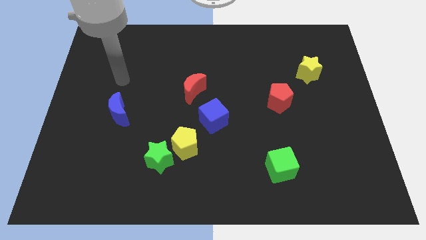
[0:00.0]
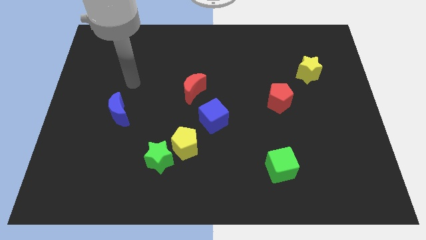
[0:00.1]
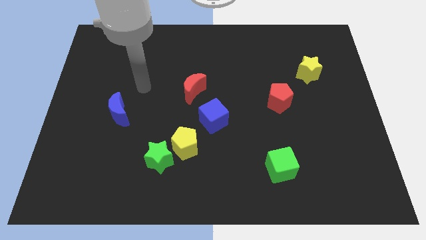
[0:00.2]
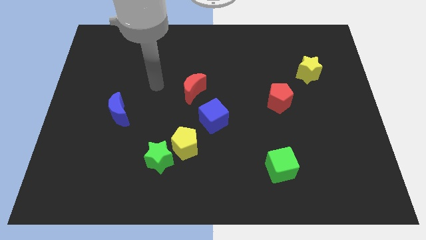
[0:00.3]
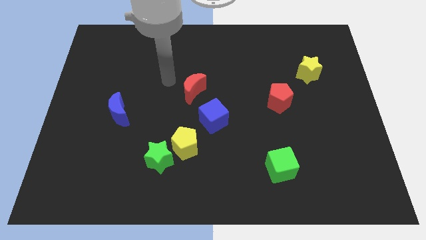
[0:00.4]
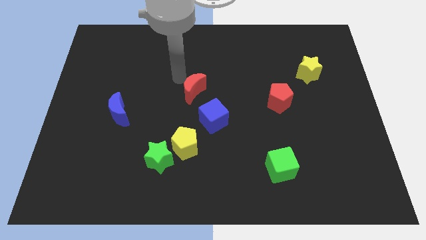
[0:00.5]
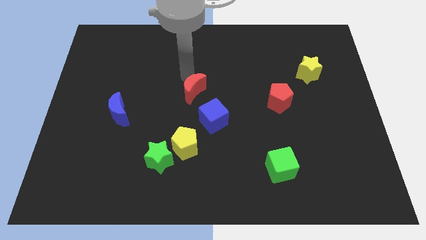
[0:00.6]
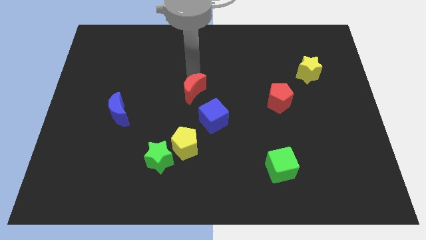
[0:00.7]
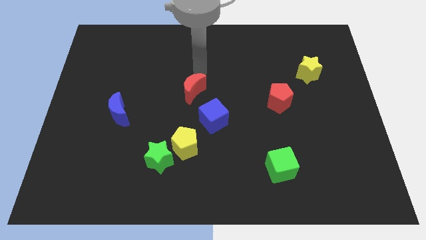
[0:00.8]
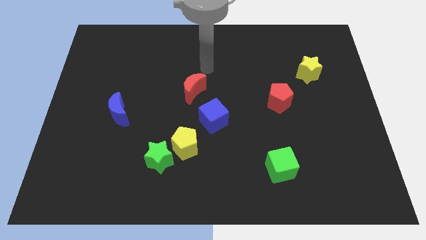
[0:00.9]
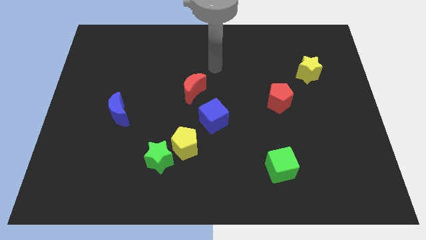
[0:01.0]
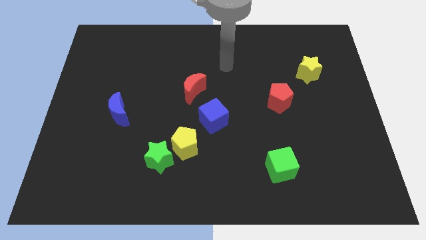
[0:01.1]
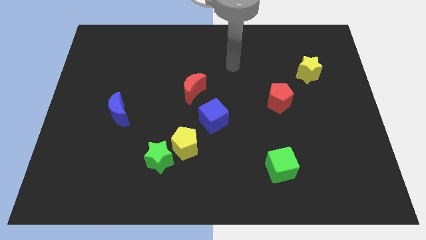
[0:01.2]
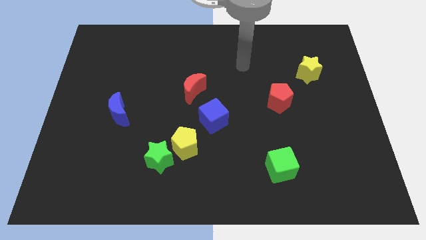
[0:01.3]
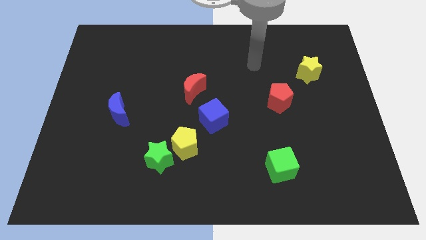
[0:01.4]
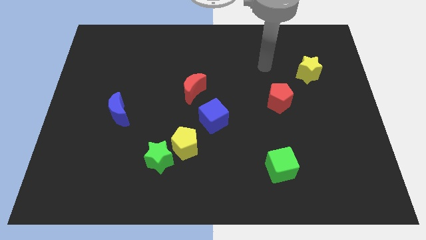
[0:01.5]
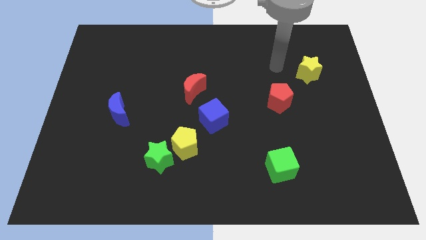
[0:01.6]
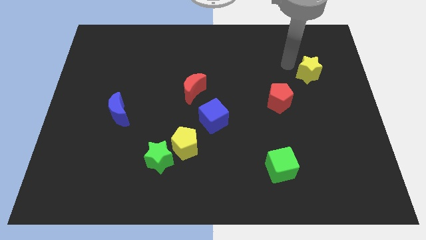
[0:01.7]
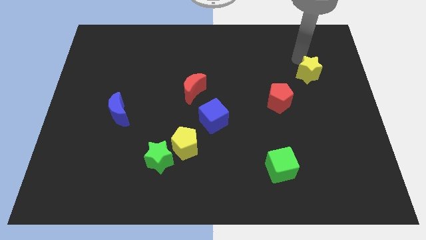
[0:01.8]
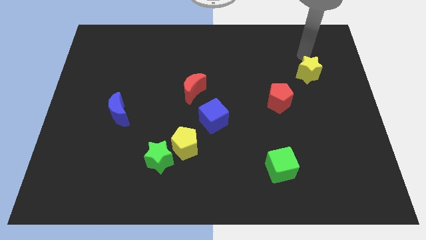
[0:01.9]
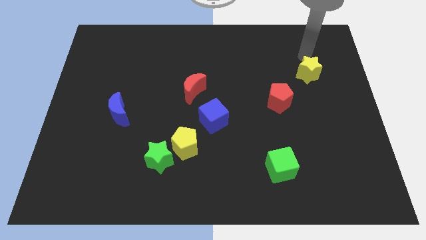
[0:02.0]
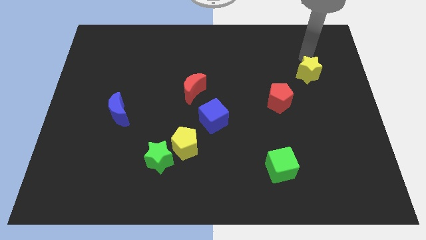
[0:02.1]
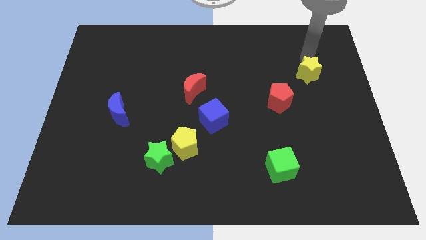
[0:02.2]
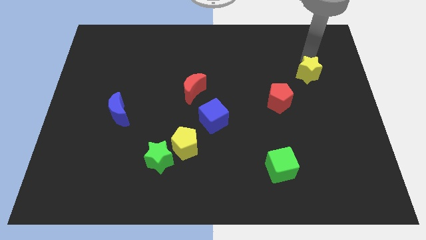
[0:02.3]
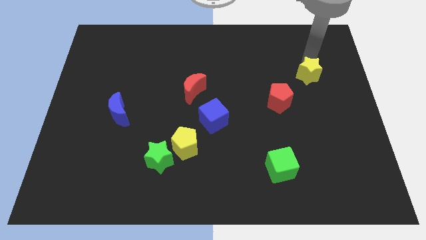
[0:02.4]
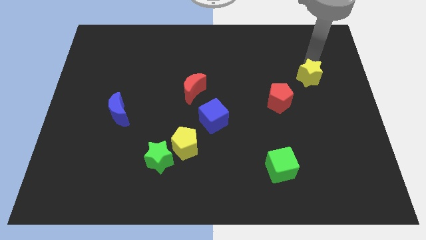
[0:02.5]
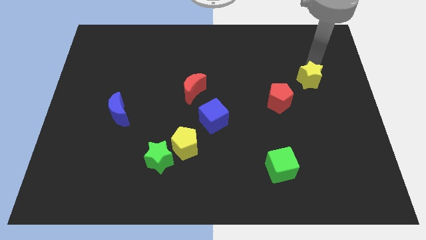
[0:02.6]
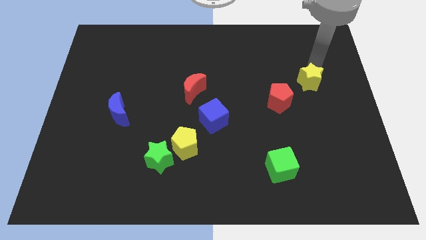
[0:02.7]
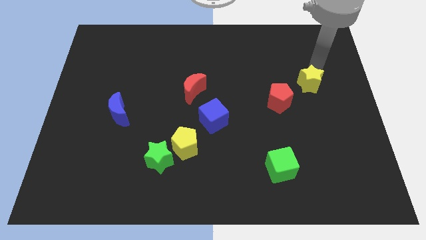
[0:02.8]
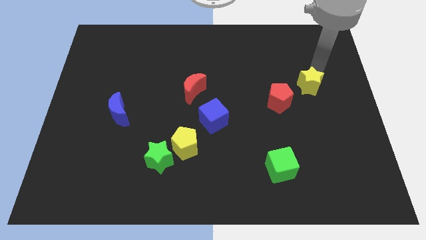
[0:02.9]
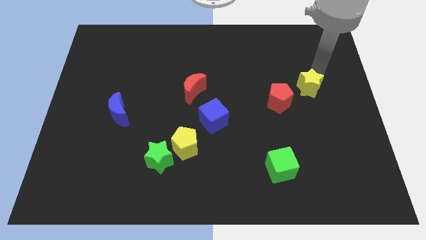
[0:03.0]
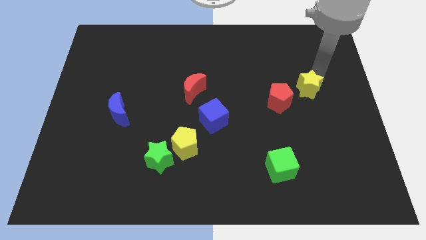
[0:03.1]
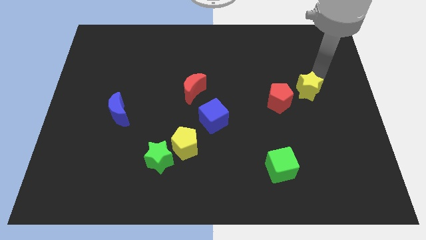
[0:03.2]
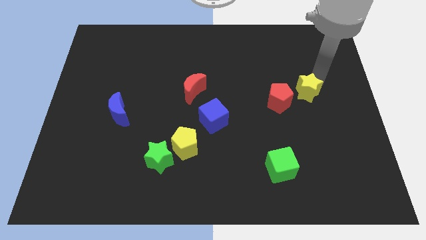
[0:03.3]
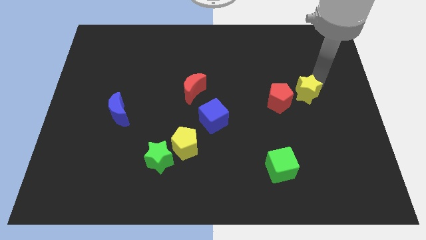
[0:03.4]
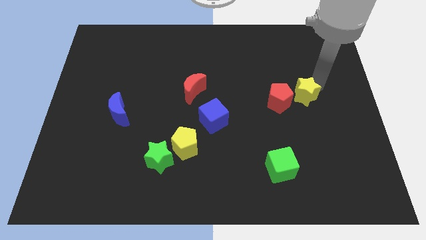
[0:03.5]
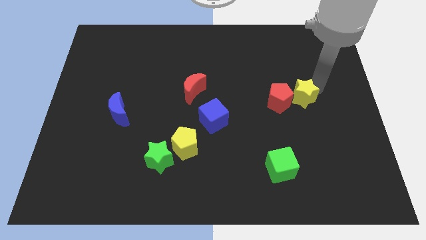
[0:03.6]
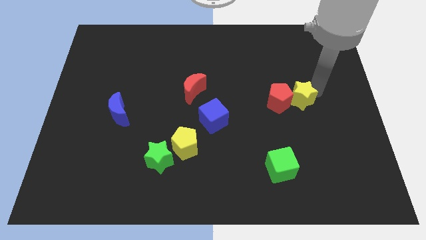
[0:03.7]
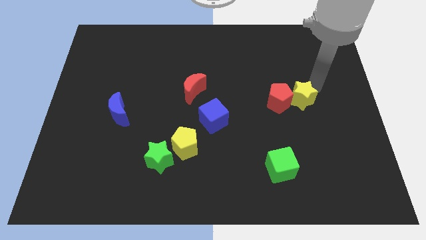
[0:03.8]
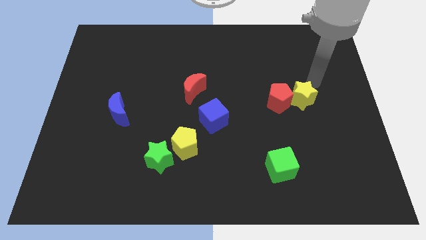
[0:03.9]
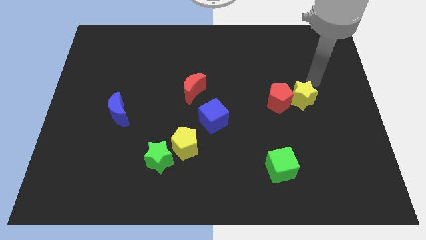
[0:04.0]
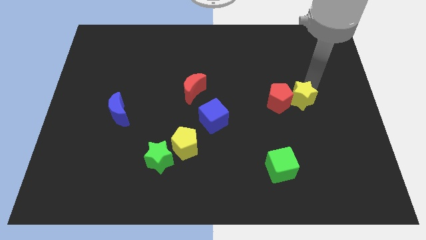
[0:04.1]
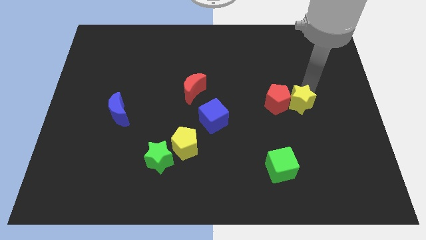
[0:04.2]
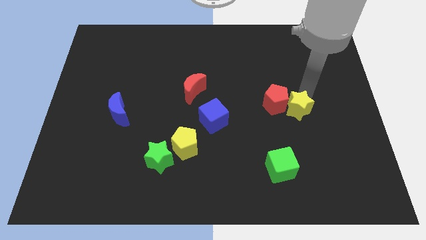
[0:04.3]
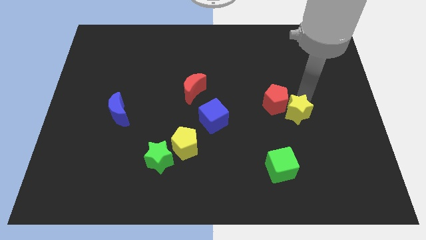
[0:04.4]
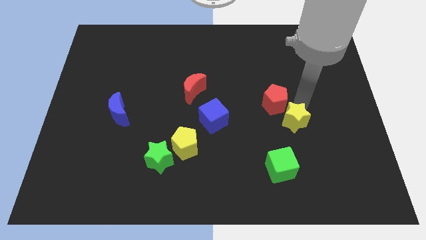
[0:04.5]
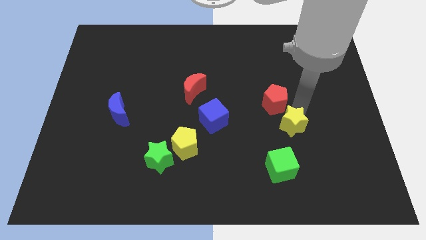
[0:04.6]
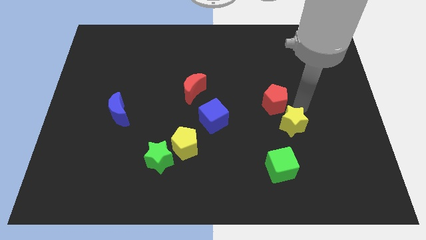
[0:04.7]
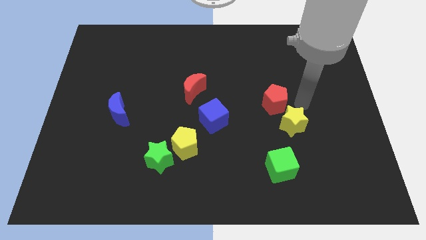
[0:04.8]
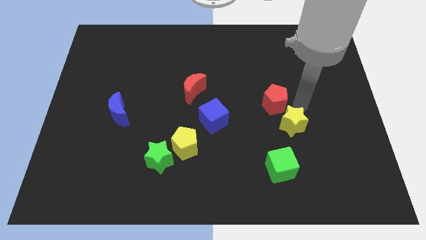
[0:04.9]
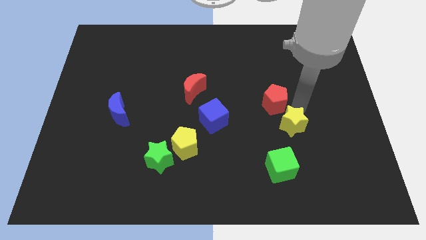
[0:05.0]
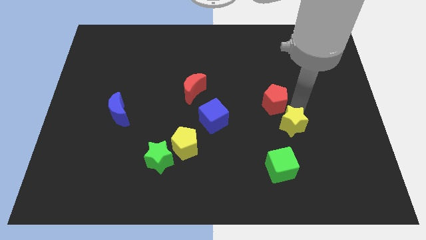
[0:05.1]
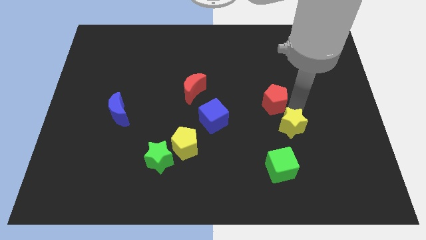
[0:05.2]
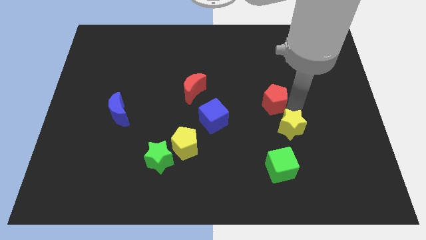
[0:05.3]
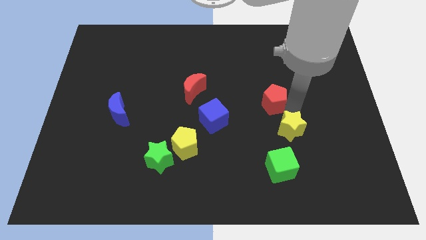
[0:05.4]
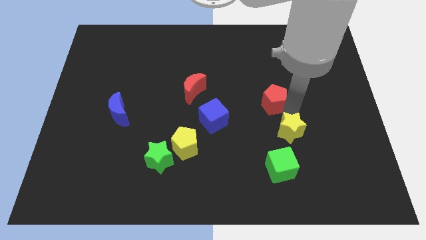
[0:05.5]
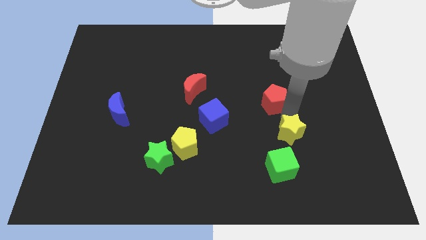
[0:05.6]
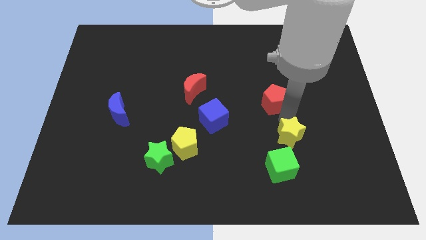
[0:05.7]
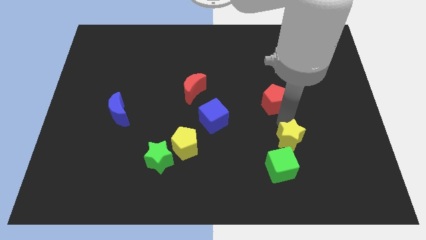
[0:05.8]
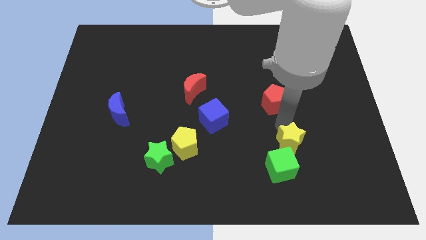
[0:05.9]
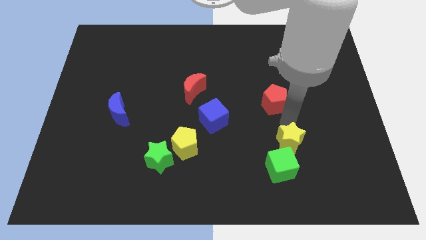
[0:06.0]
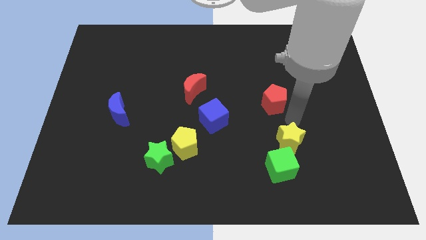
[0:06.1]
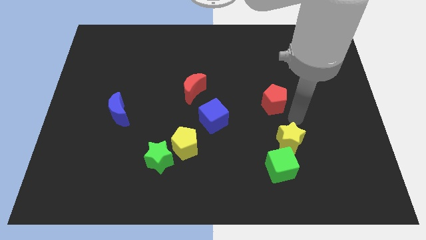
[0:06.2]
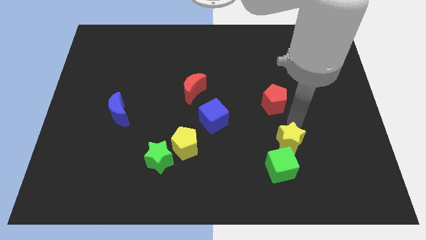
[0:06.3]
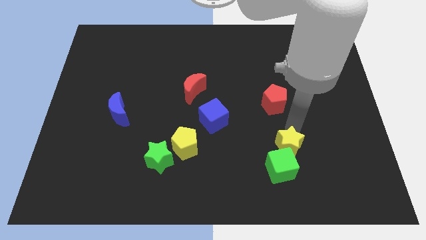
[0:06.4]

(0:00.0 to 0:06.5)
slide the yellow star towards the green cube

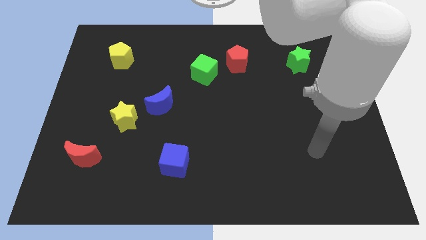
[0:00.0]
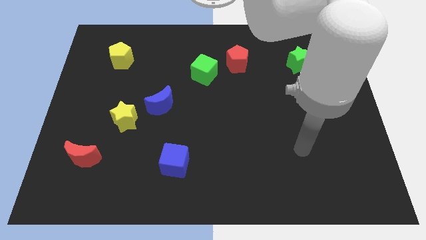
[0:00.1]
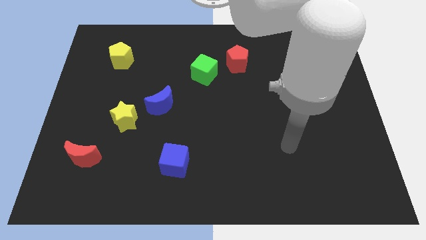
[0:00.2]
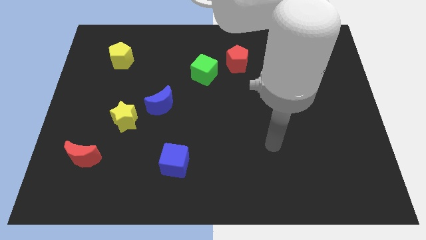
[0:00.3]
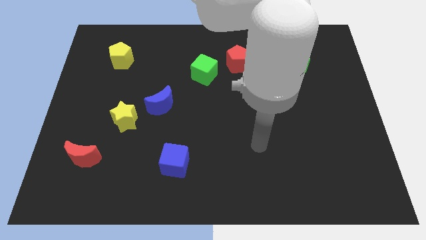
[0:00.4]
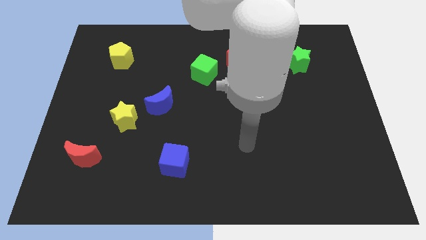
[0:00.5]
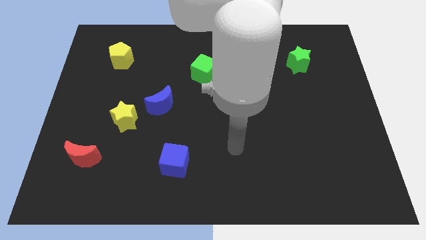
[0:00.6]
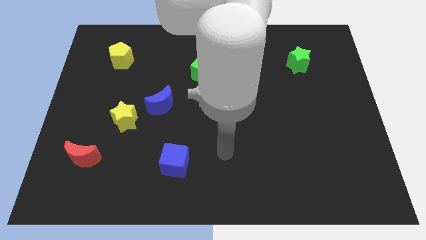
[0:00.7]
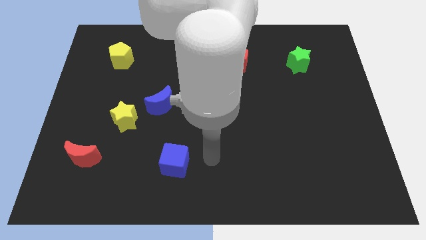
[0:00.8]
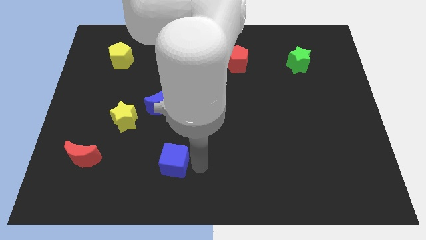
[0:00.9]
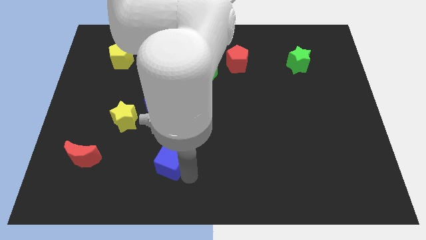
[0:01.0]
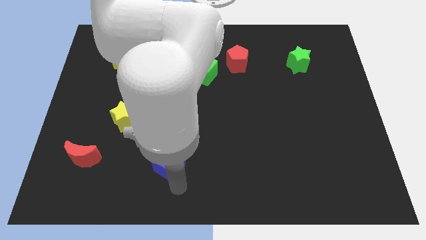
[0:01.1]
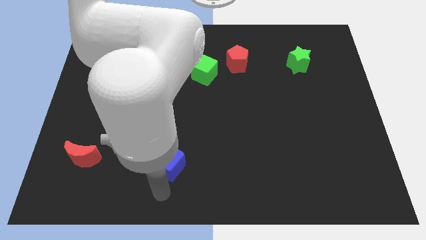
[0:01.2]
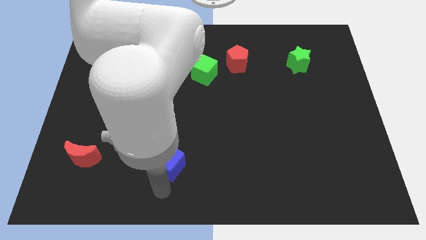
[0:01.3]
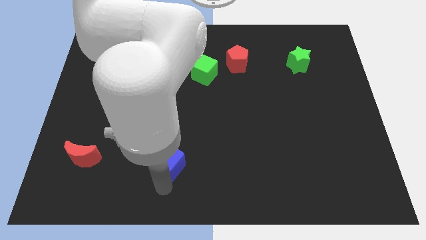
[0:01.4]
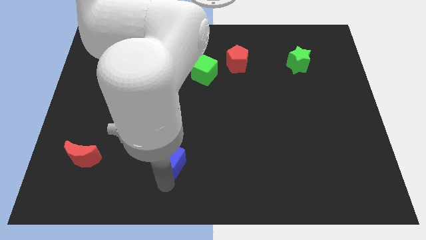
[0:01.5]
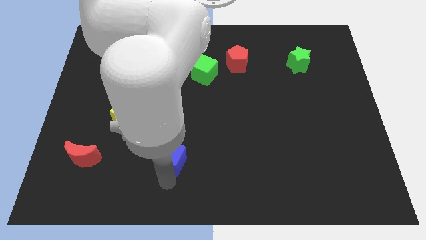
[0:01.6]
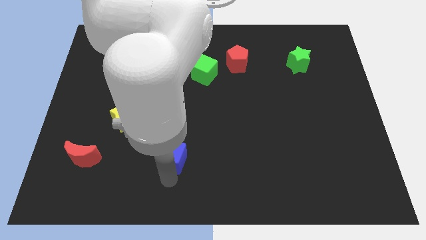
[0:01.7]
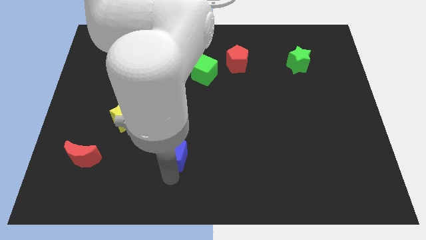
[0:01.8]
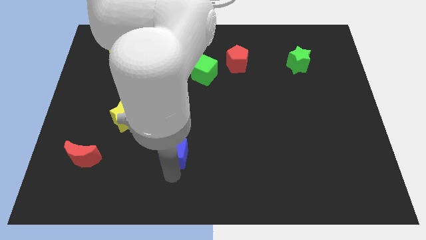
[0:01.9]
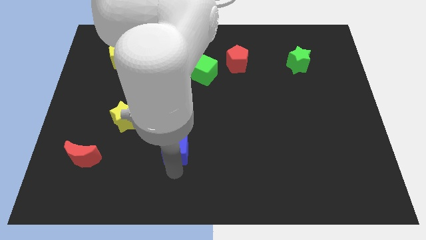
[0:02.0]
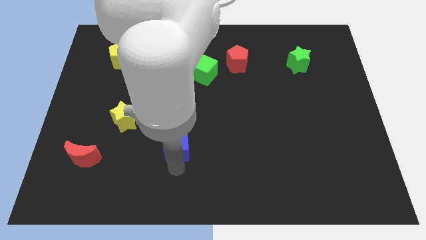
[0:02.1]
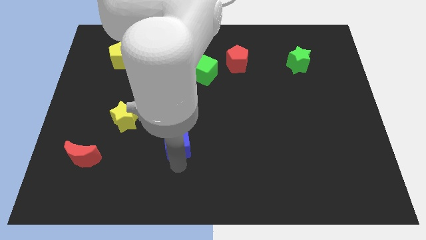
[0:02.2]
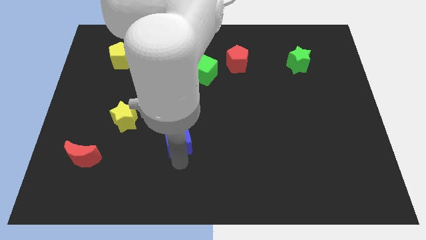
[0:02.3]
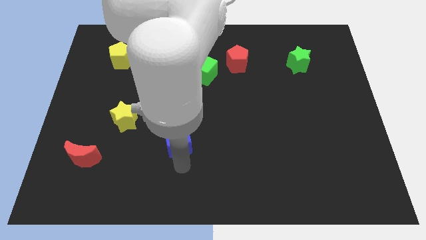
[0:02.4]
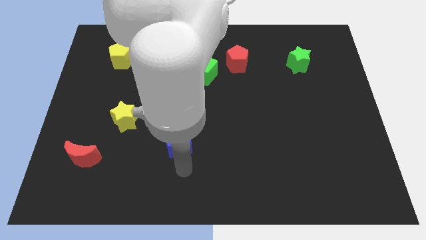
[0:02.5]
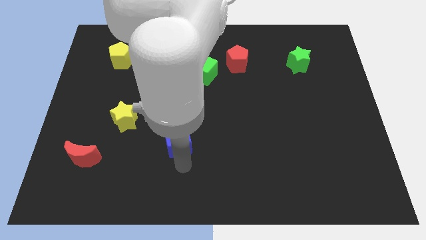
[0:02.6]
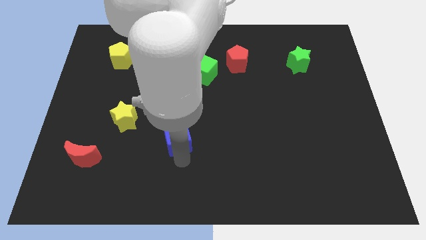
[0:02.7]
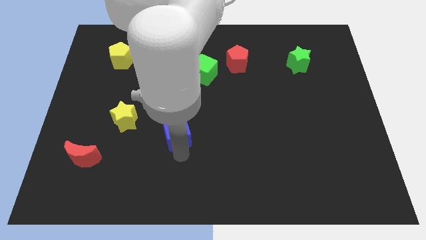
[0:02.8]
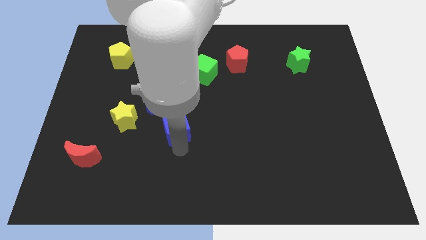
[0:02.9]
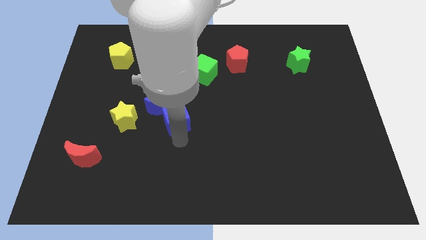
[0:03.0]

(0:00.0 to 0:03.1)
push the blue cube next to the blue moon
